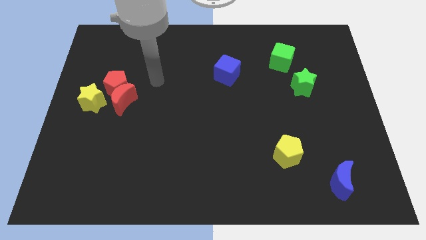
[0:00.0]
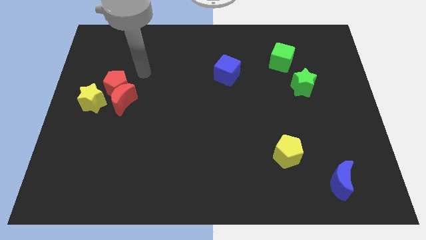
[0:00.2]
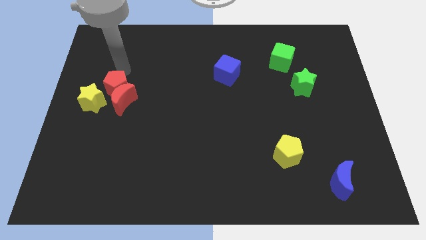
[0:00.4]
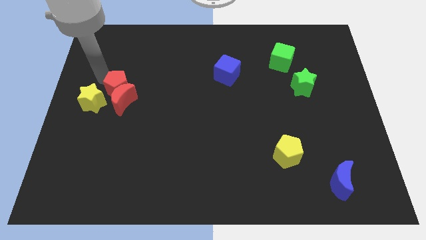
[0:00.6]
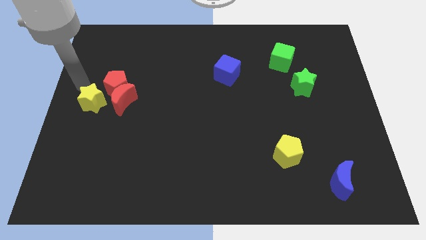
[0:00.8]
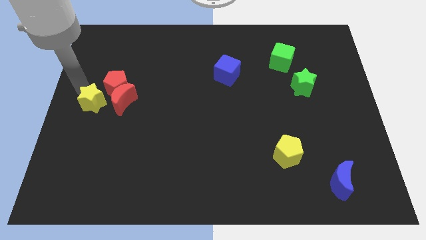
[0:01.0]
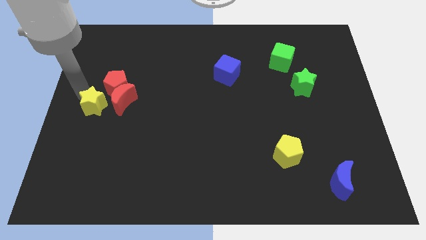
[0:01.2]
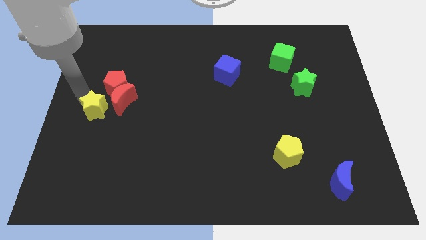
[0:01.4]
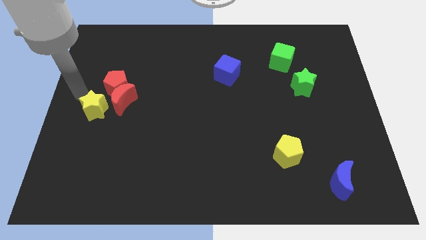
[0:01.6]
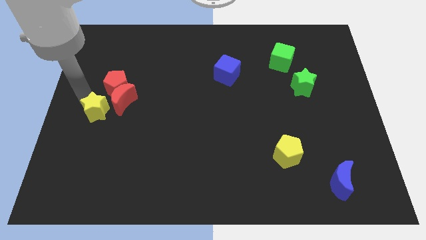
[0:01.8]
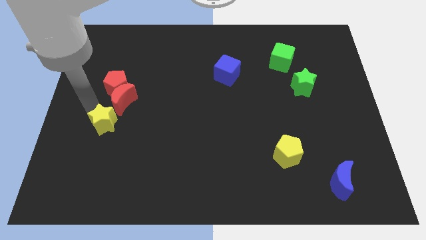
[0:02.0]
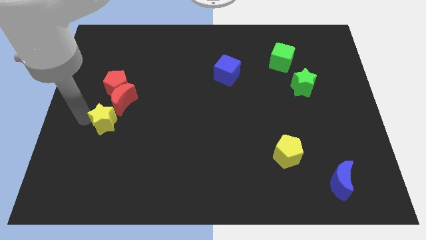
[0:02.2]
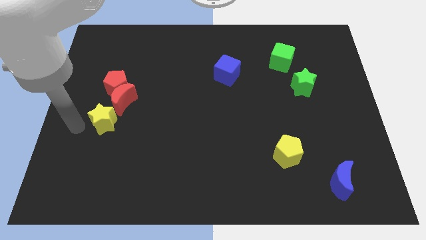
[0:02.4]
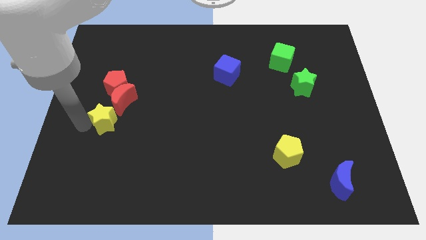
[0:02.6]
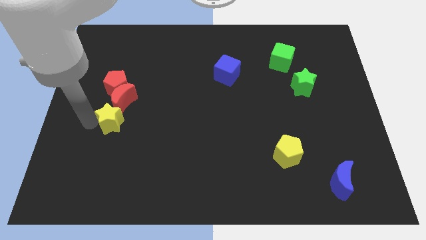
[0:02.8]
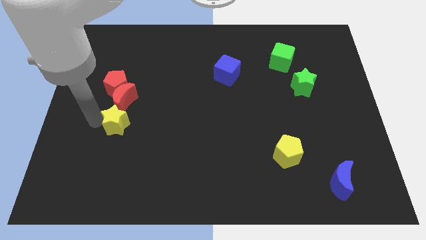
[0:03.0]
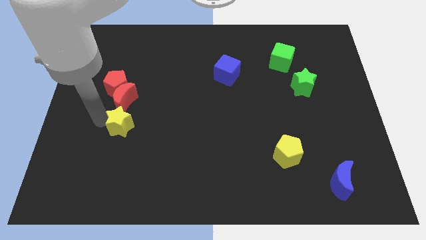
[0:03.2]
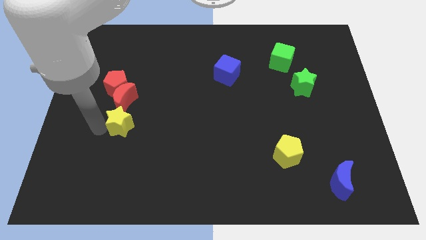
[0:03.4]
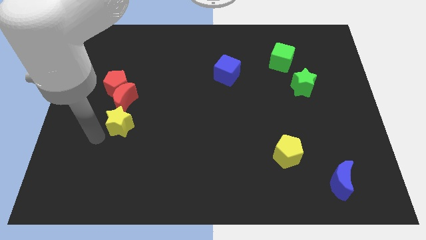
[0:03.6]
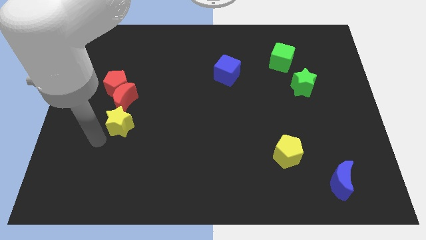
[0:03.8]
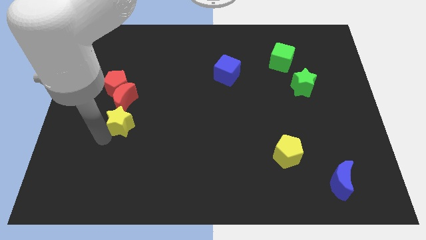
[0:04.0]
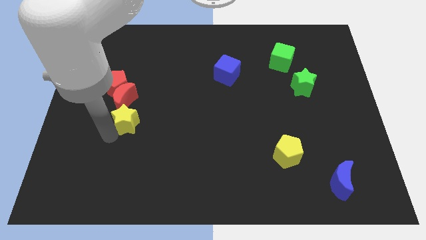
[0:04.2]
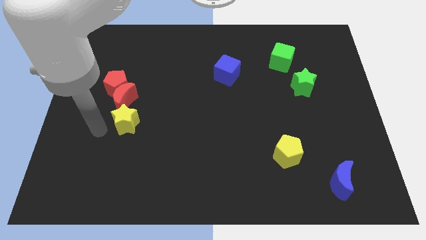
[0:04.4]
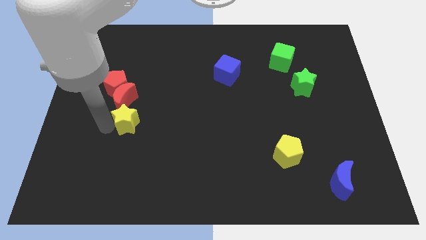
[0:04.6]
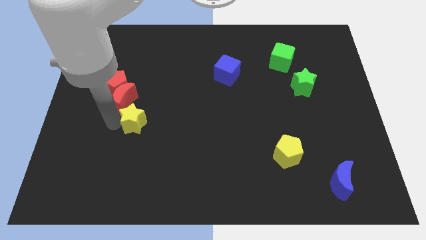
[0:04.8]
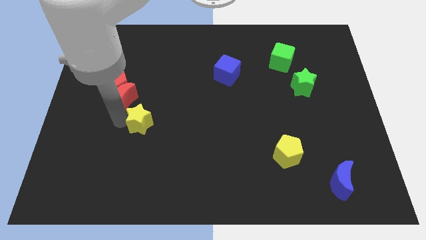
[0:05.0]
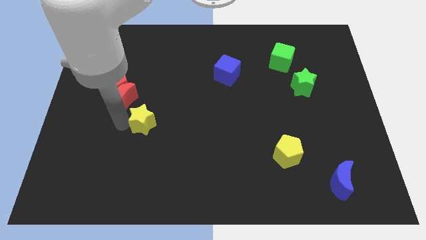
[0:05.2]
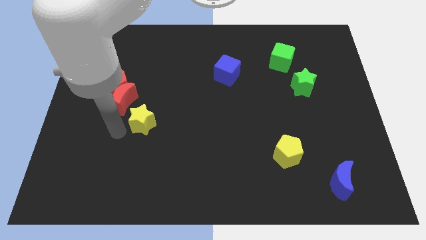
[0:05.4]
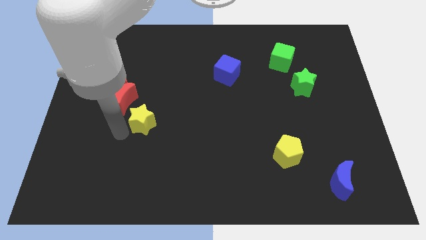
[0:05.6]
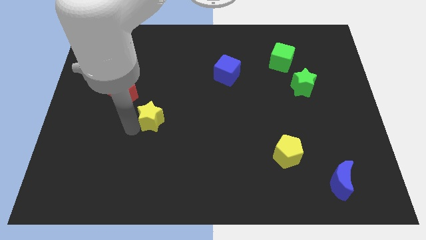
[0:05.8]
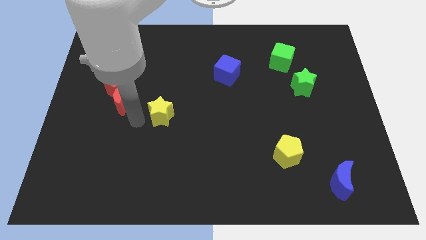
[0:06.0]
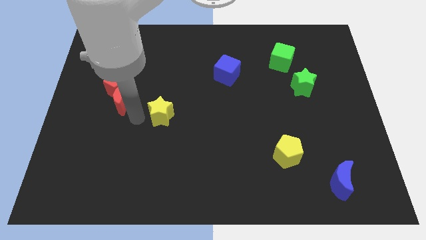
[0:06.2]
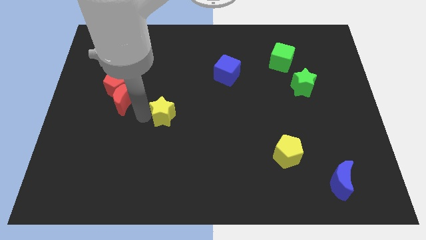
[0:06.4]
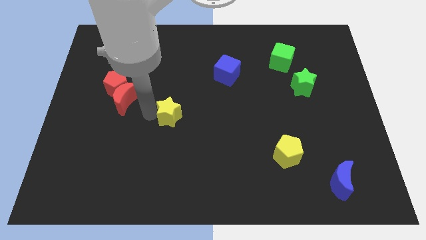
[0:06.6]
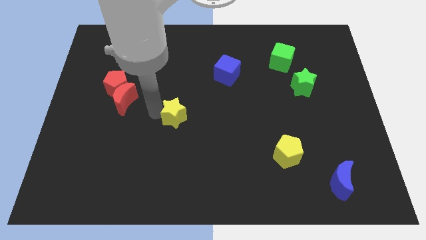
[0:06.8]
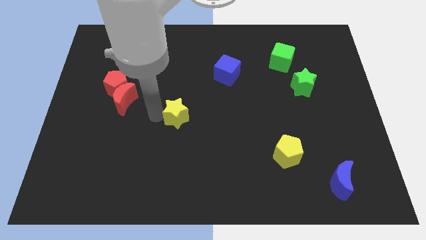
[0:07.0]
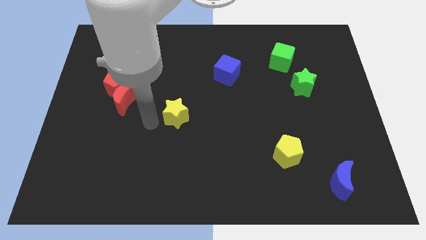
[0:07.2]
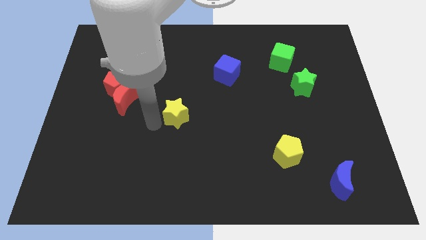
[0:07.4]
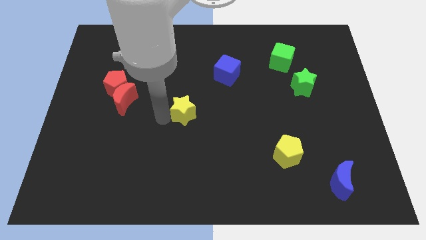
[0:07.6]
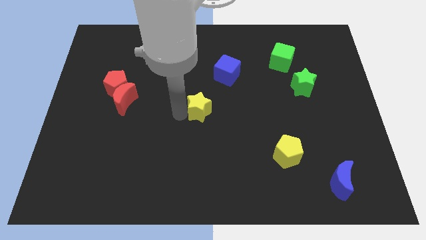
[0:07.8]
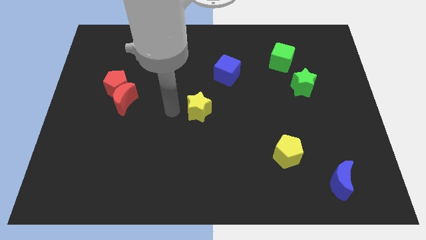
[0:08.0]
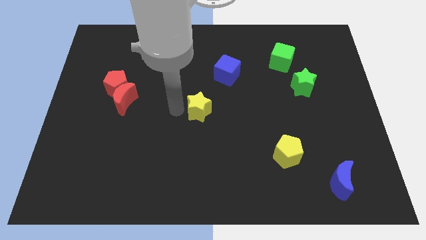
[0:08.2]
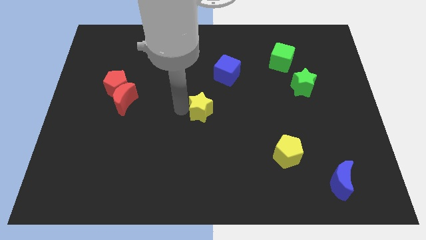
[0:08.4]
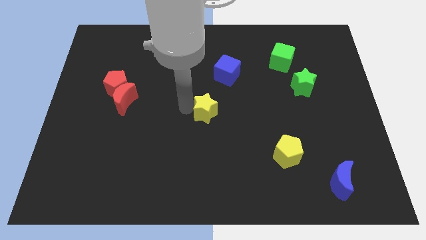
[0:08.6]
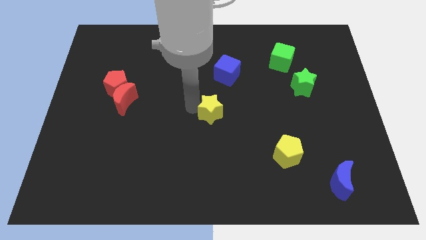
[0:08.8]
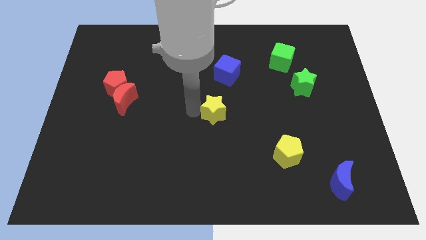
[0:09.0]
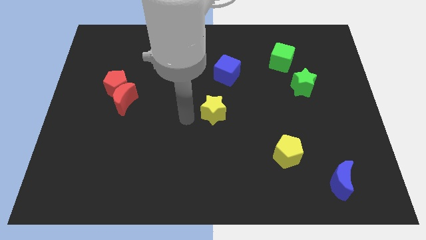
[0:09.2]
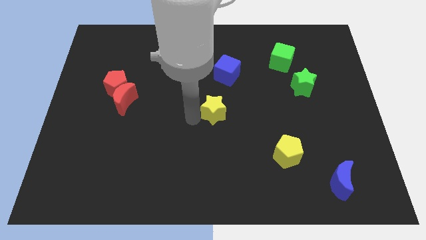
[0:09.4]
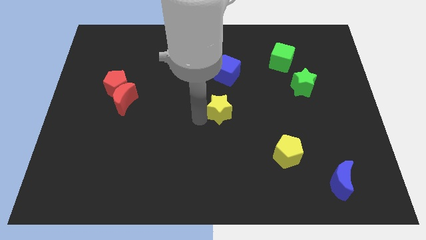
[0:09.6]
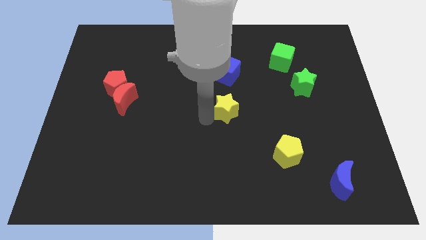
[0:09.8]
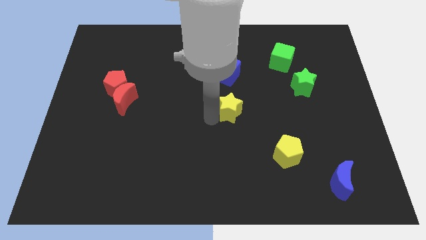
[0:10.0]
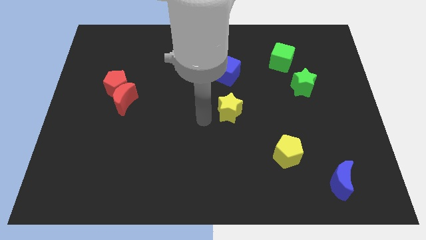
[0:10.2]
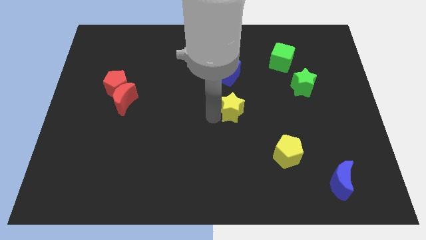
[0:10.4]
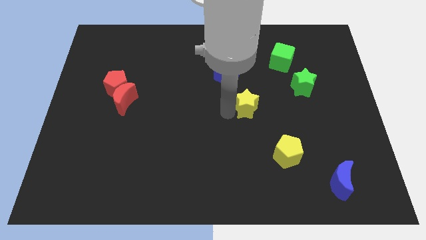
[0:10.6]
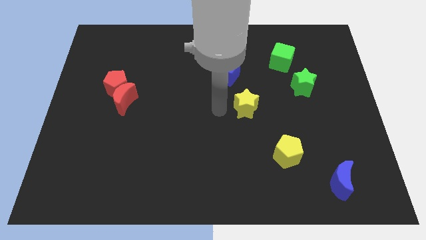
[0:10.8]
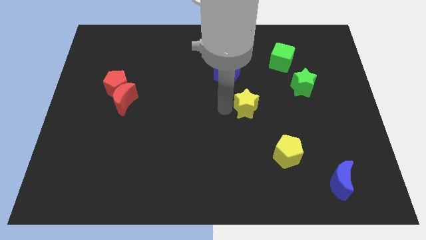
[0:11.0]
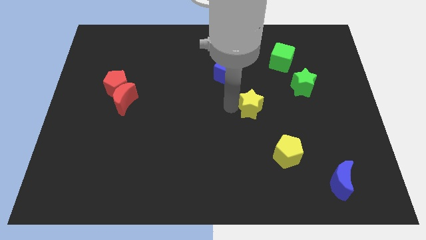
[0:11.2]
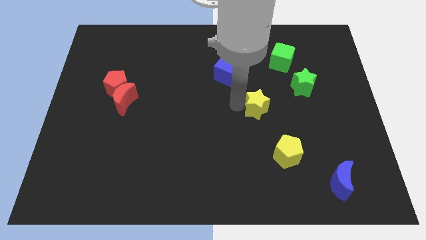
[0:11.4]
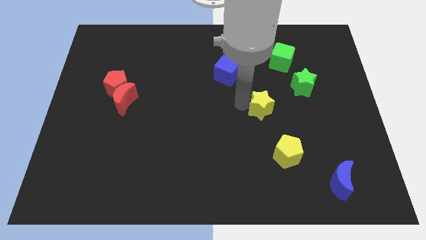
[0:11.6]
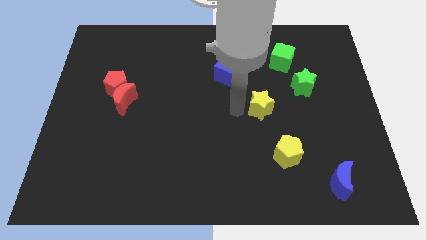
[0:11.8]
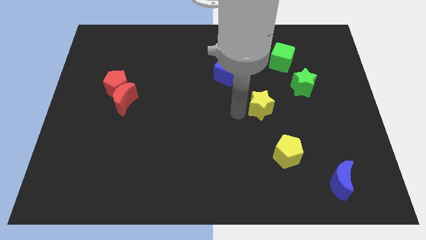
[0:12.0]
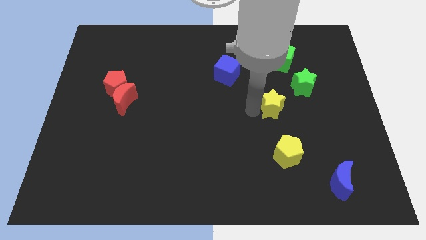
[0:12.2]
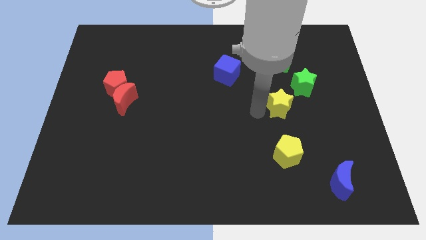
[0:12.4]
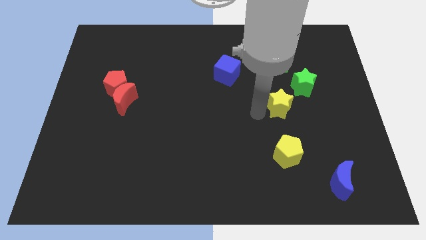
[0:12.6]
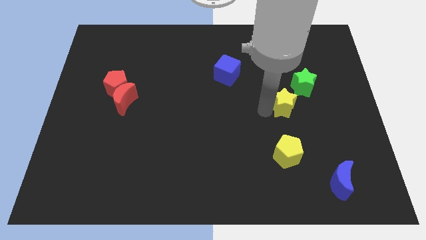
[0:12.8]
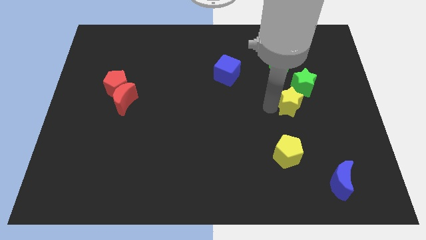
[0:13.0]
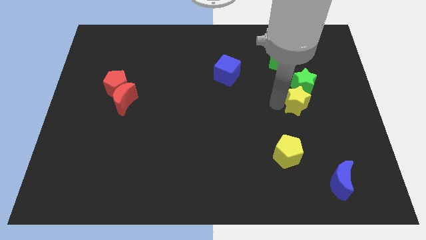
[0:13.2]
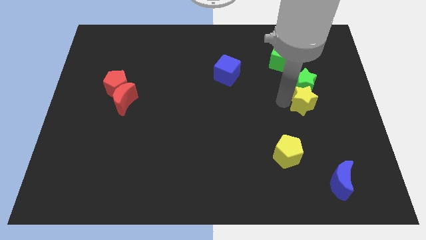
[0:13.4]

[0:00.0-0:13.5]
slide the yellow star to the bottom right side of the green star

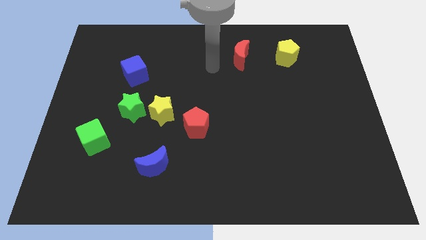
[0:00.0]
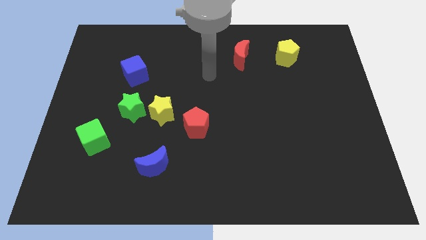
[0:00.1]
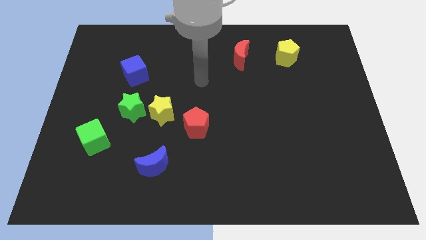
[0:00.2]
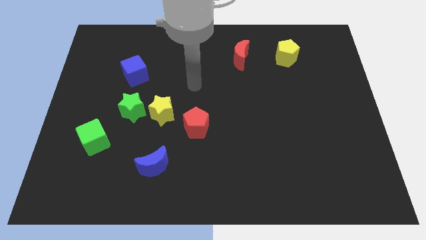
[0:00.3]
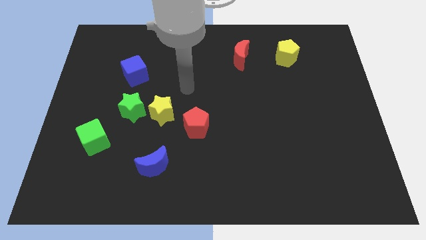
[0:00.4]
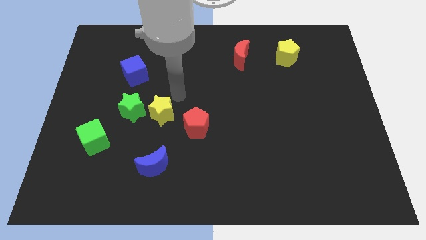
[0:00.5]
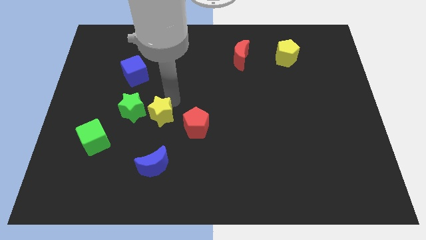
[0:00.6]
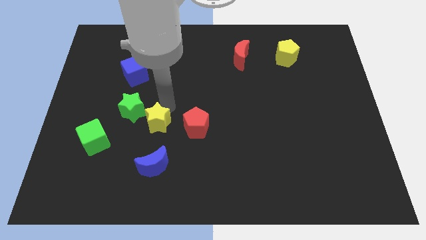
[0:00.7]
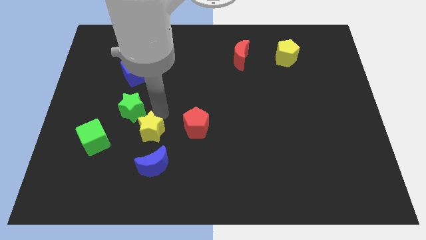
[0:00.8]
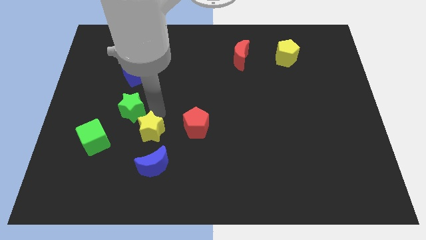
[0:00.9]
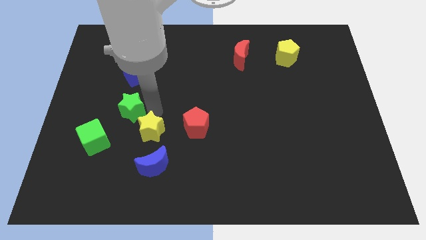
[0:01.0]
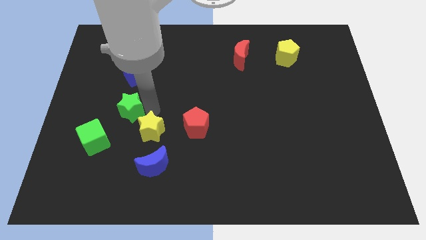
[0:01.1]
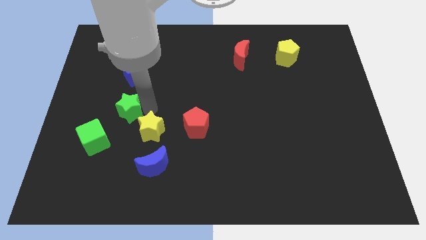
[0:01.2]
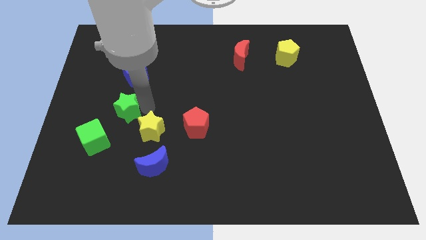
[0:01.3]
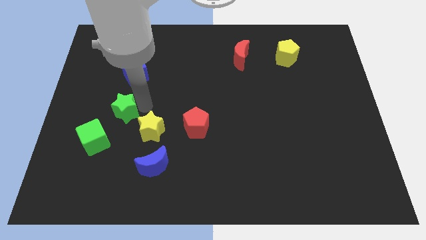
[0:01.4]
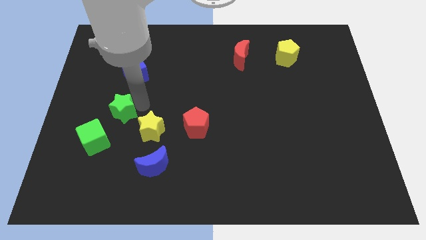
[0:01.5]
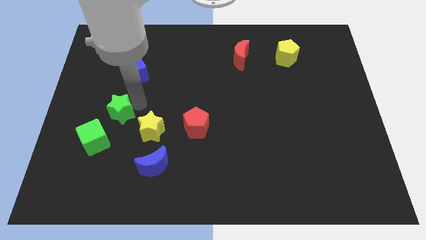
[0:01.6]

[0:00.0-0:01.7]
put the green star to the top side of the green cube
